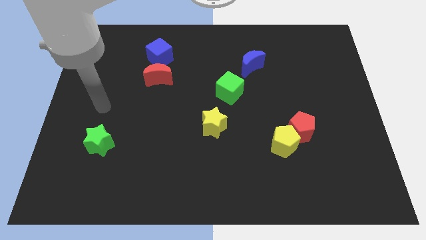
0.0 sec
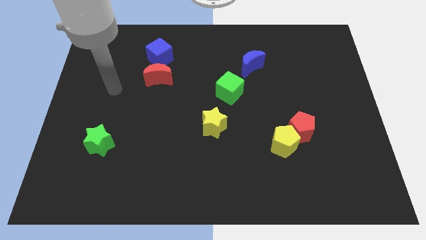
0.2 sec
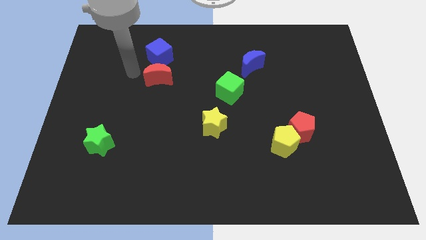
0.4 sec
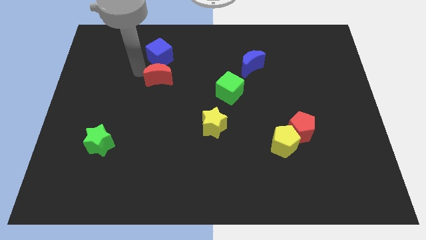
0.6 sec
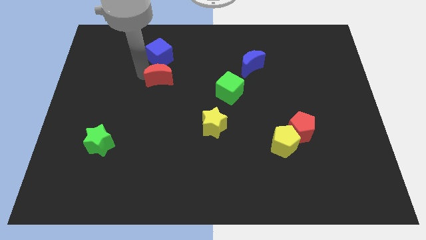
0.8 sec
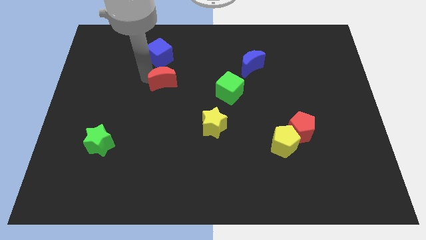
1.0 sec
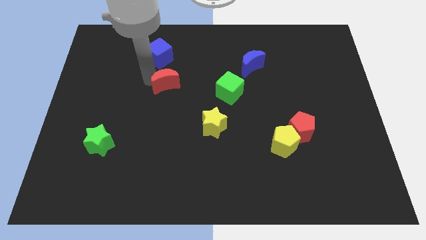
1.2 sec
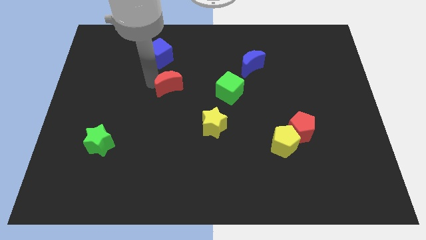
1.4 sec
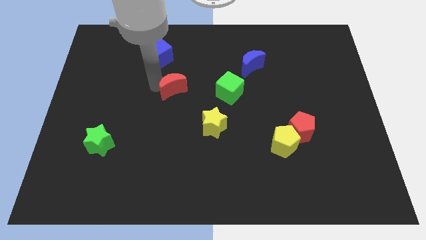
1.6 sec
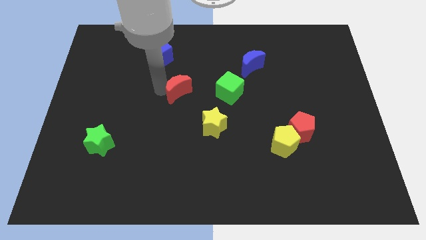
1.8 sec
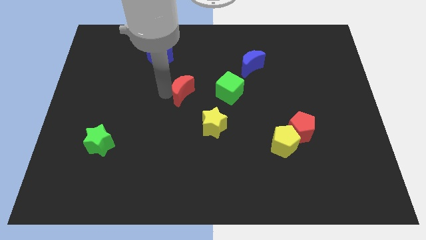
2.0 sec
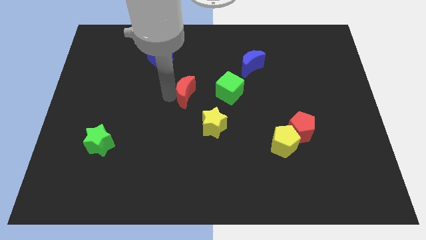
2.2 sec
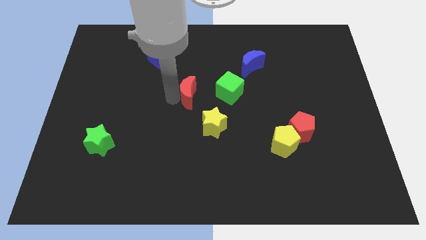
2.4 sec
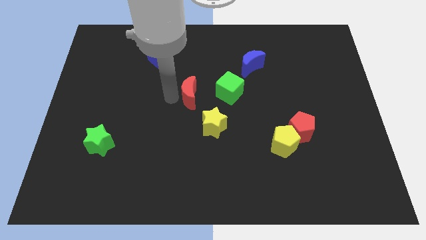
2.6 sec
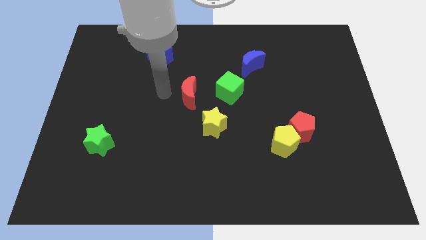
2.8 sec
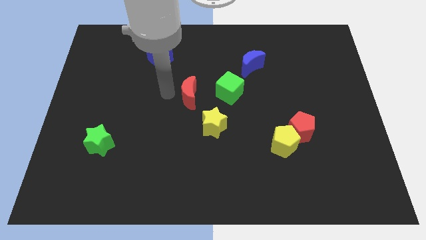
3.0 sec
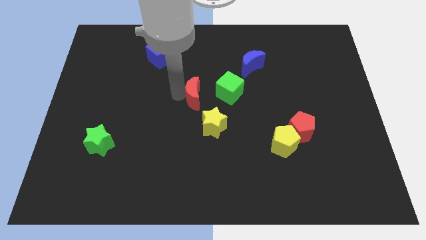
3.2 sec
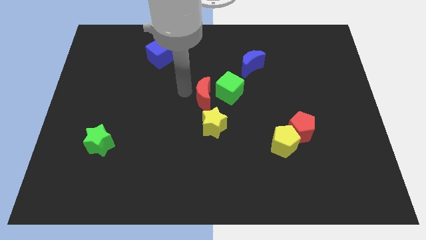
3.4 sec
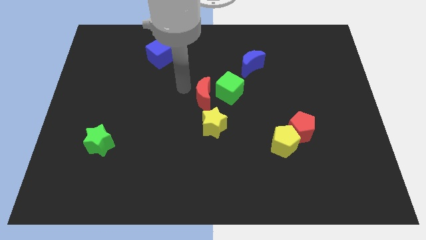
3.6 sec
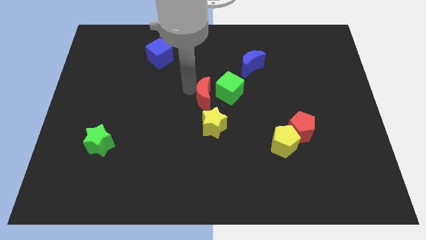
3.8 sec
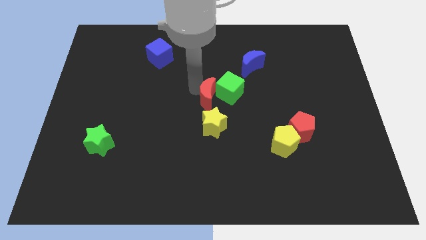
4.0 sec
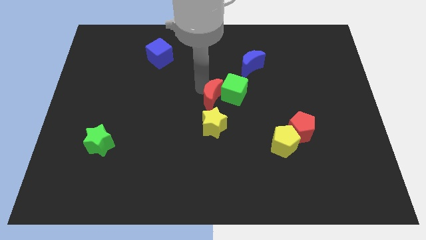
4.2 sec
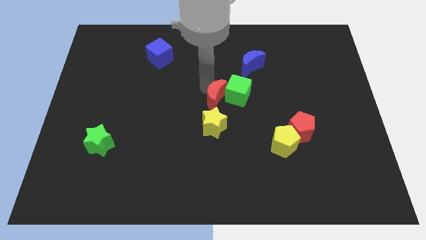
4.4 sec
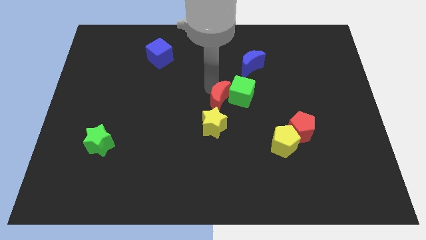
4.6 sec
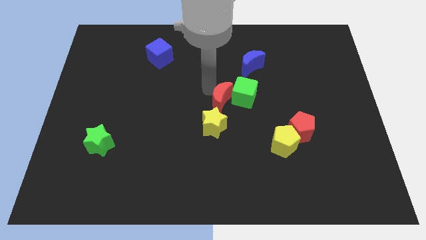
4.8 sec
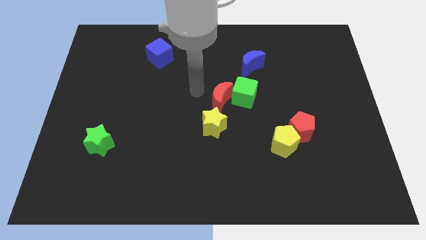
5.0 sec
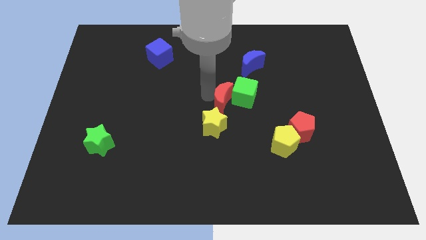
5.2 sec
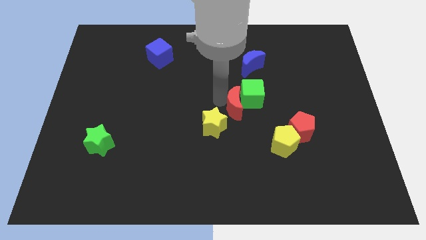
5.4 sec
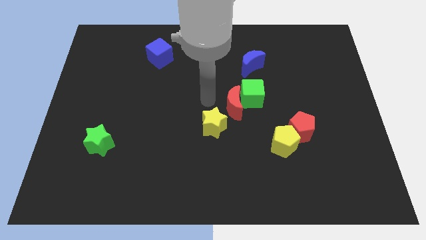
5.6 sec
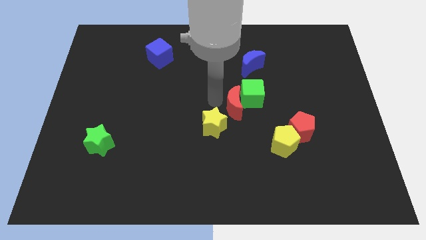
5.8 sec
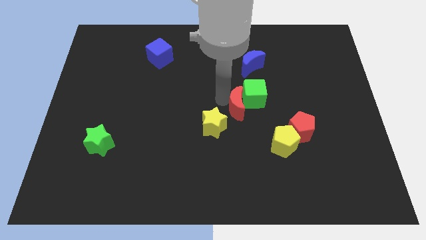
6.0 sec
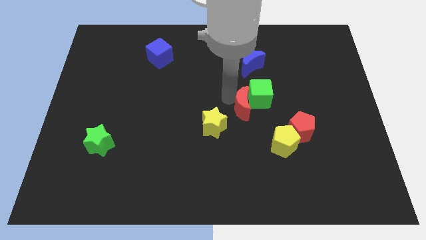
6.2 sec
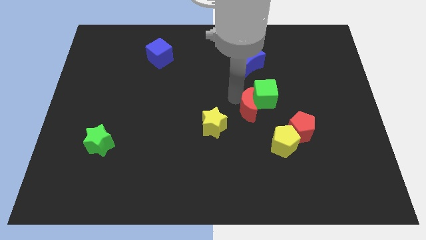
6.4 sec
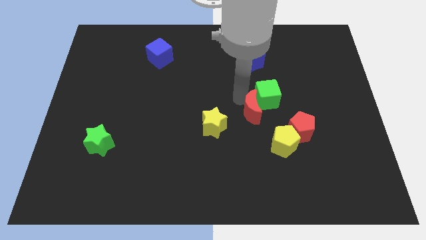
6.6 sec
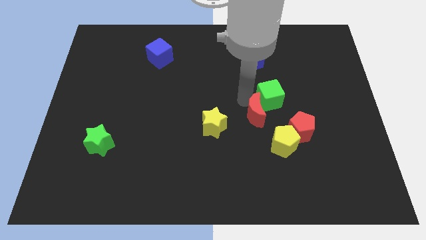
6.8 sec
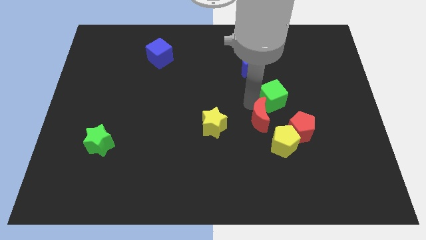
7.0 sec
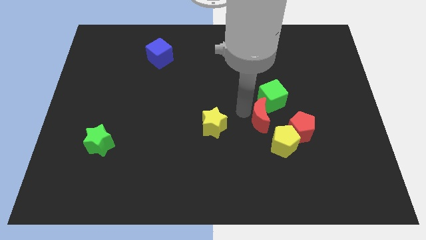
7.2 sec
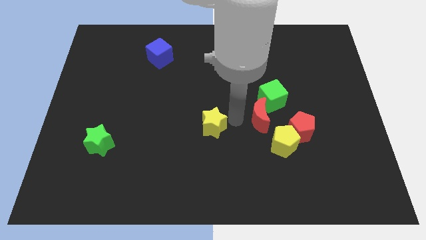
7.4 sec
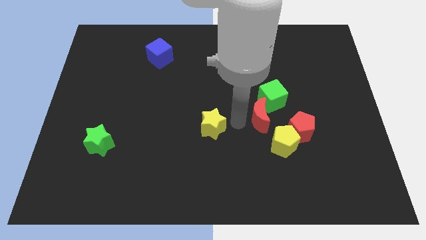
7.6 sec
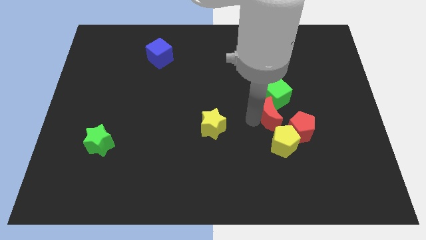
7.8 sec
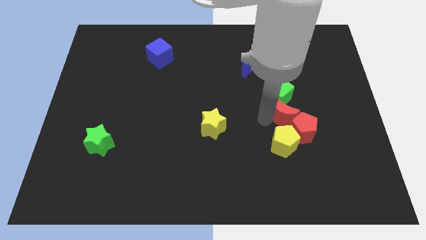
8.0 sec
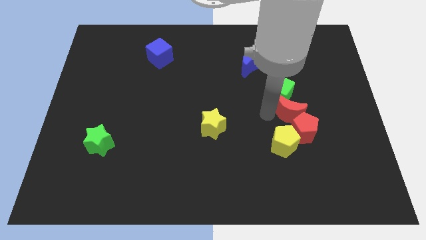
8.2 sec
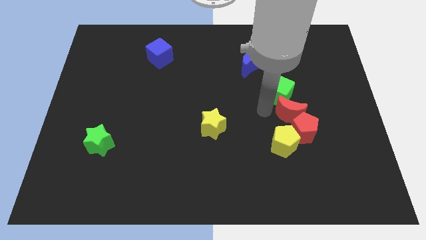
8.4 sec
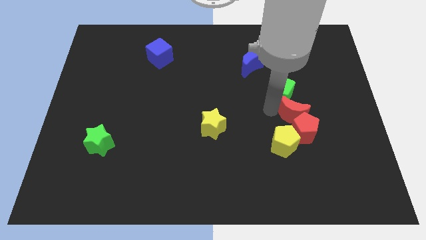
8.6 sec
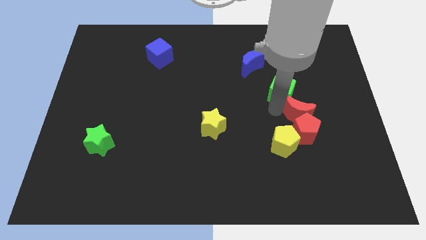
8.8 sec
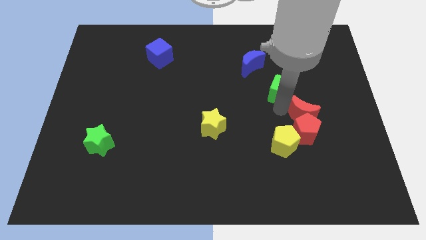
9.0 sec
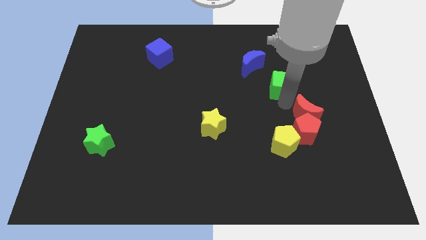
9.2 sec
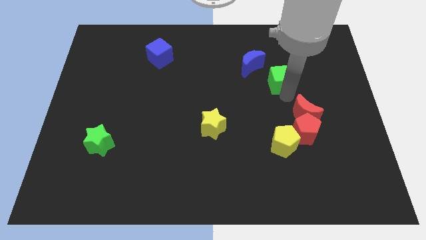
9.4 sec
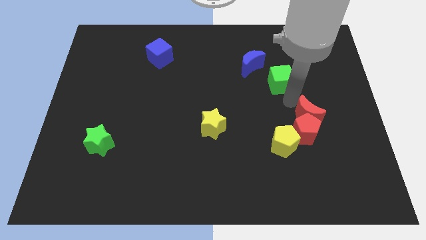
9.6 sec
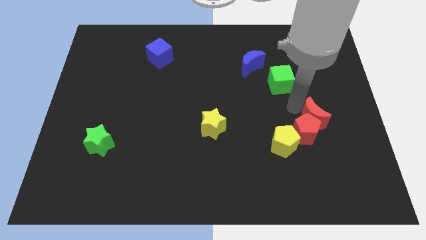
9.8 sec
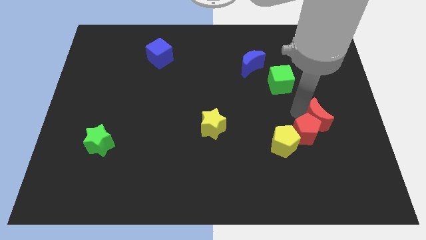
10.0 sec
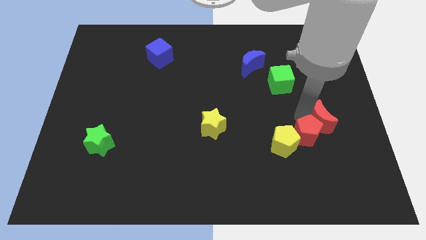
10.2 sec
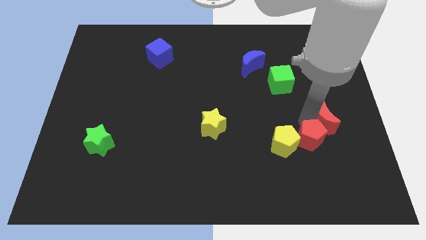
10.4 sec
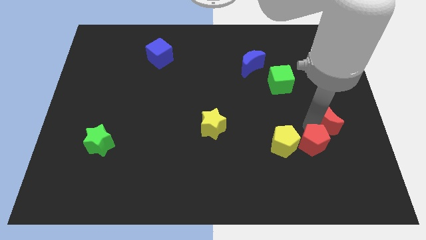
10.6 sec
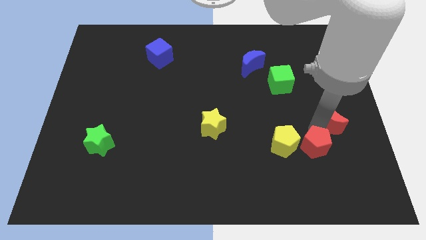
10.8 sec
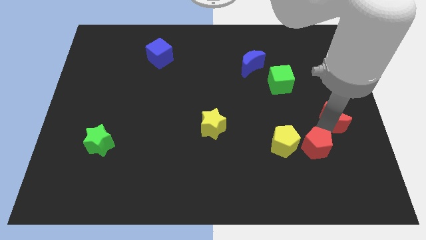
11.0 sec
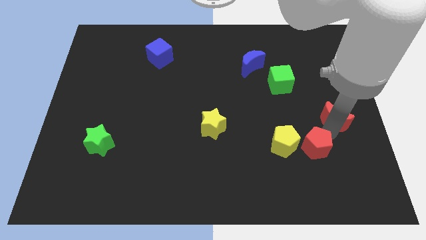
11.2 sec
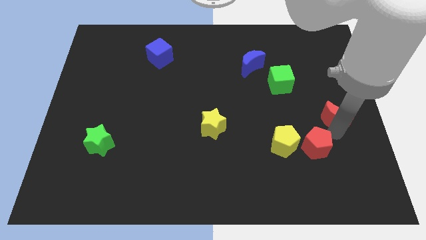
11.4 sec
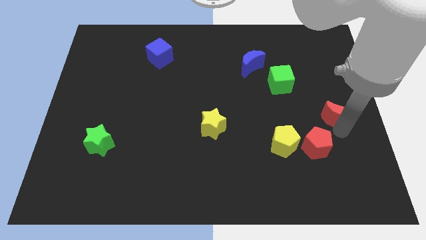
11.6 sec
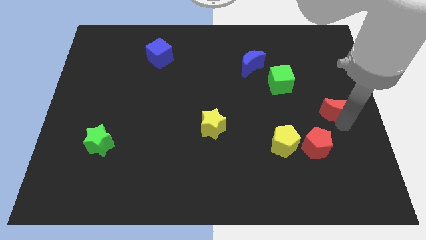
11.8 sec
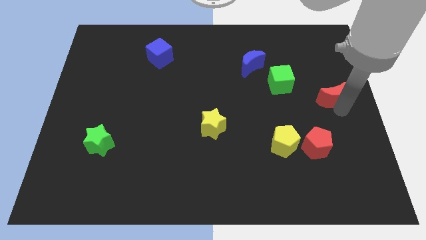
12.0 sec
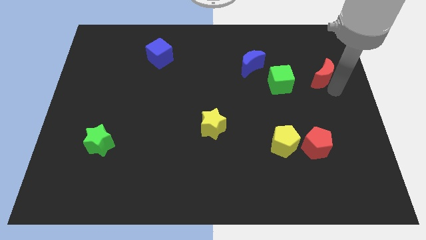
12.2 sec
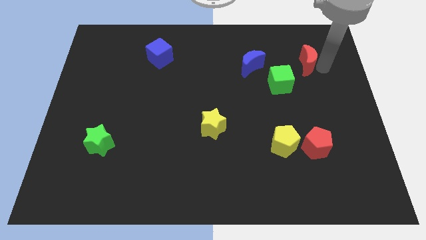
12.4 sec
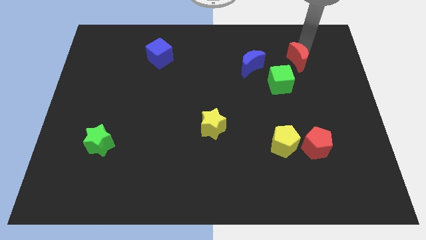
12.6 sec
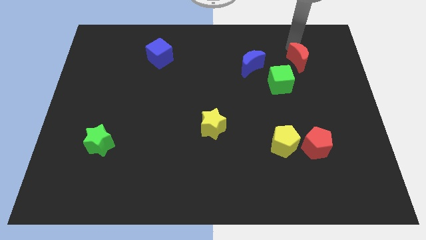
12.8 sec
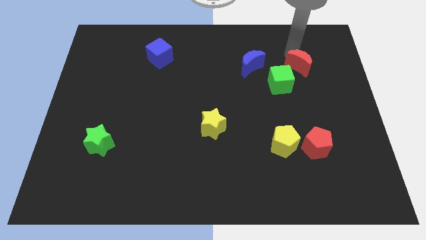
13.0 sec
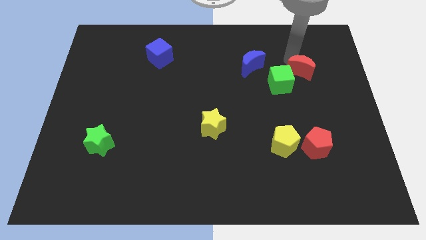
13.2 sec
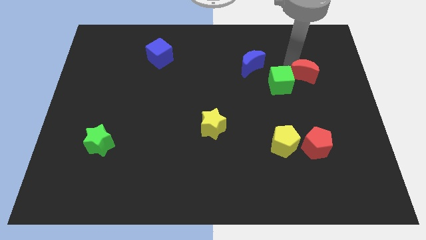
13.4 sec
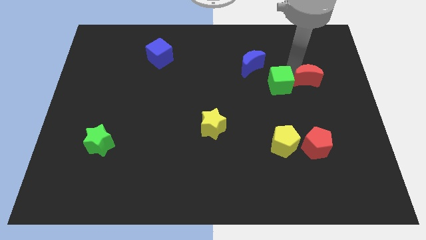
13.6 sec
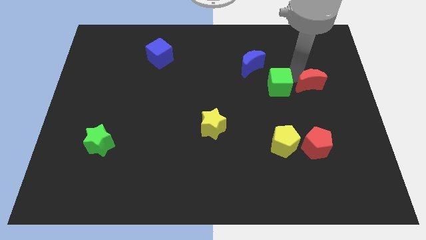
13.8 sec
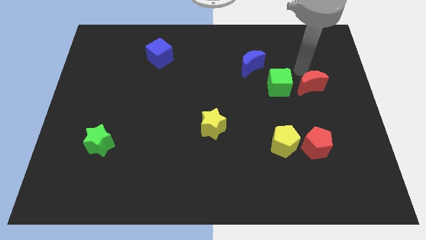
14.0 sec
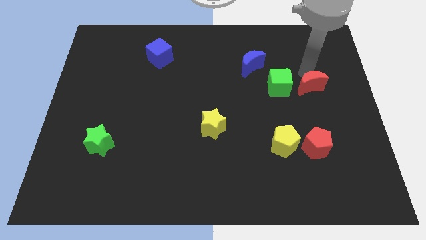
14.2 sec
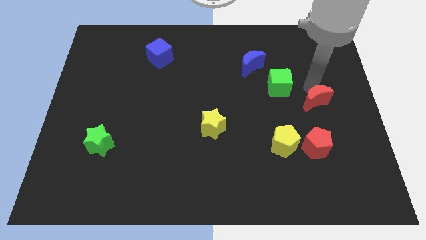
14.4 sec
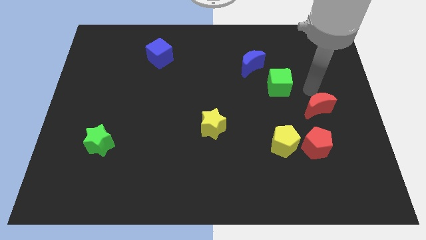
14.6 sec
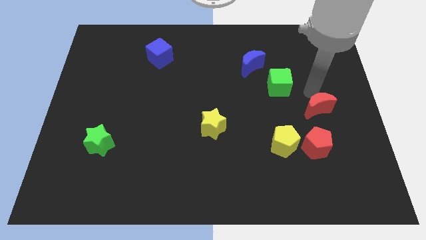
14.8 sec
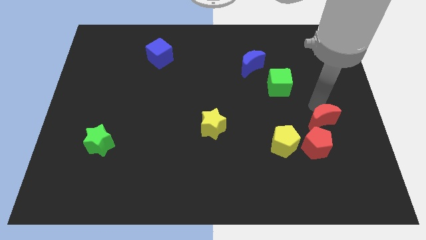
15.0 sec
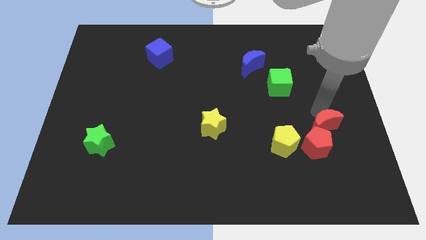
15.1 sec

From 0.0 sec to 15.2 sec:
slide the red moon to the right of the yellow pentagon
